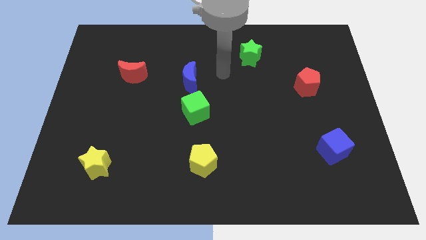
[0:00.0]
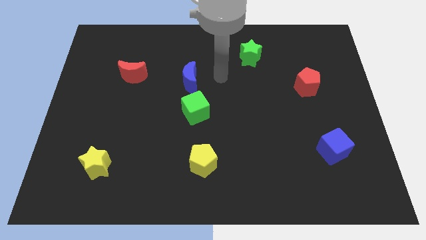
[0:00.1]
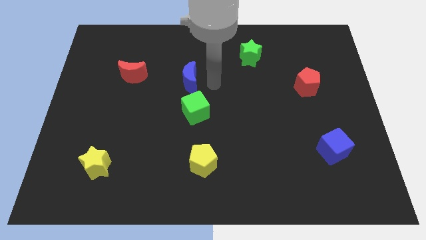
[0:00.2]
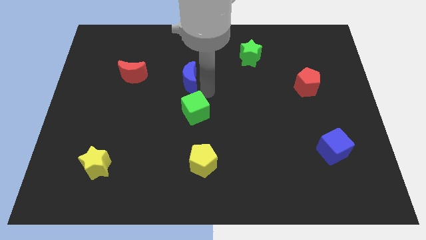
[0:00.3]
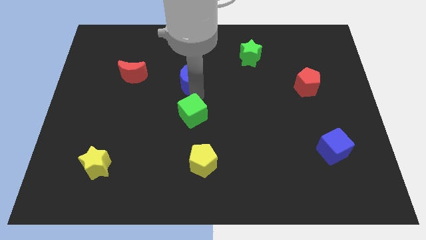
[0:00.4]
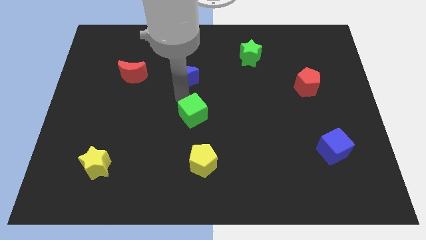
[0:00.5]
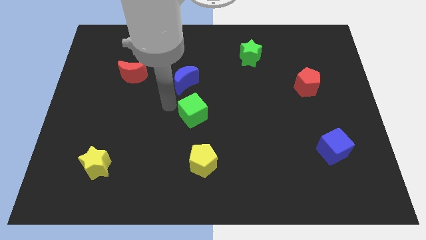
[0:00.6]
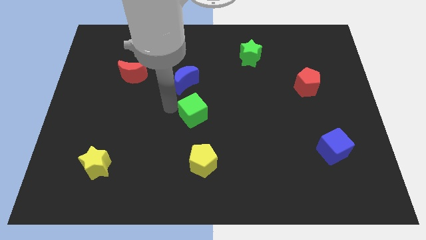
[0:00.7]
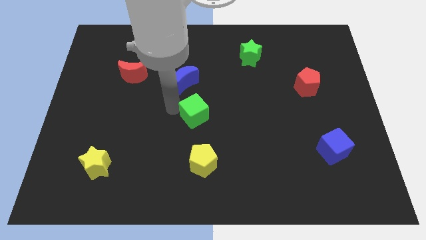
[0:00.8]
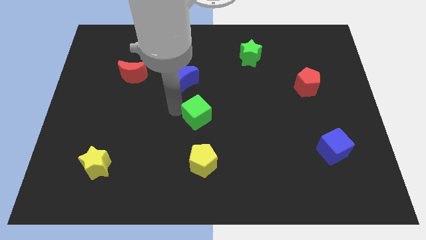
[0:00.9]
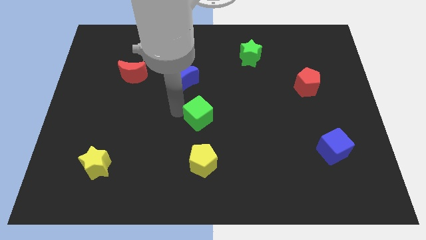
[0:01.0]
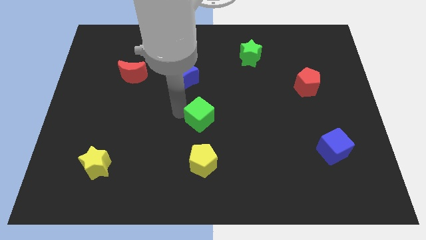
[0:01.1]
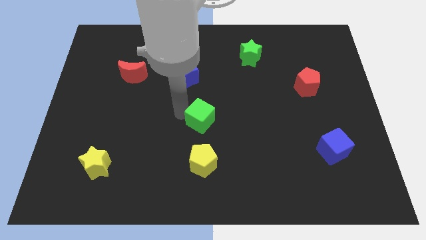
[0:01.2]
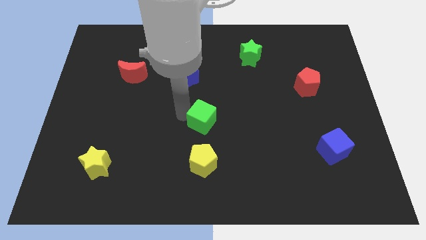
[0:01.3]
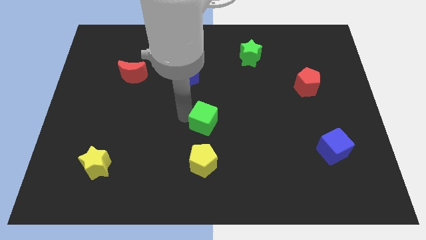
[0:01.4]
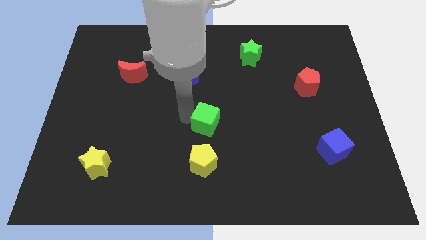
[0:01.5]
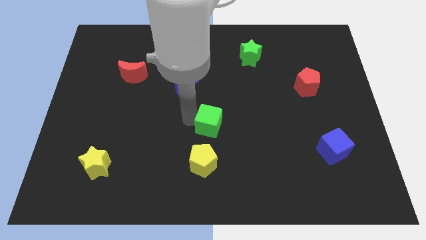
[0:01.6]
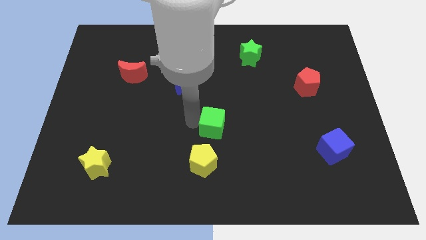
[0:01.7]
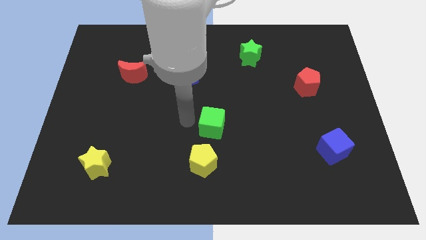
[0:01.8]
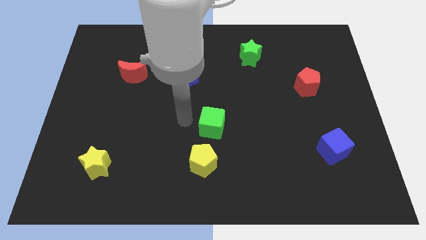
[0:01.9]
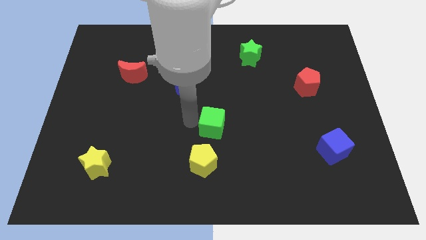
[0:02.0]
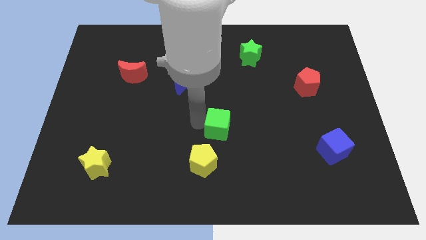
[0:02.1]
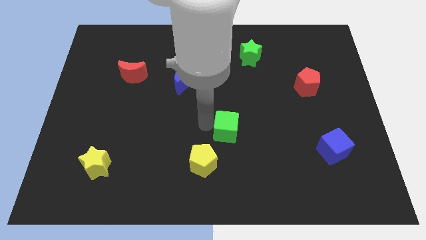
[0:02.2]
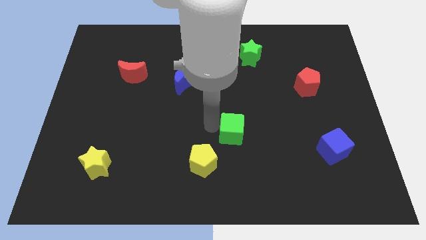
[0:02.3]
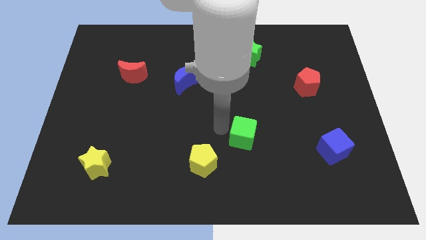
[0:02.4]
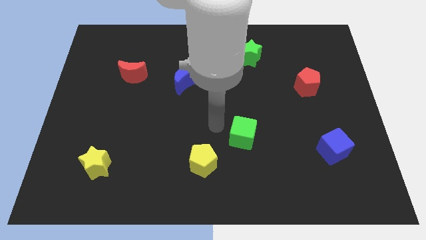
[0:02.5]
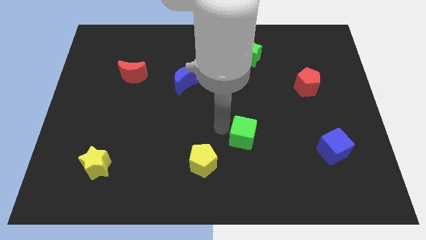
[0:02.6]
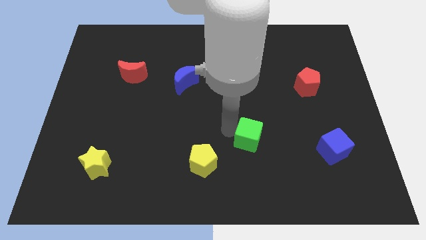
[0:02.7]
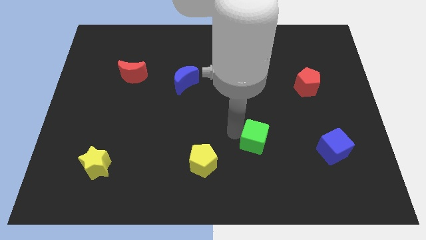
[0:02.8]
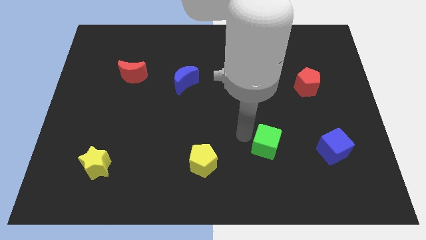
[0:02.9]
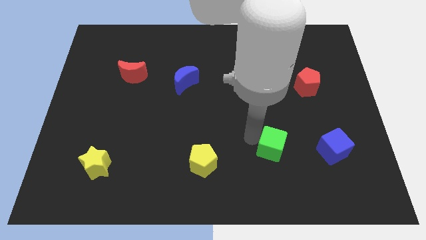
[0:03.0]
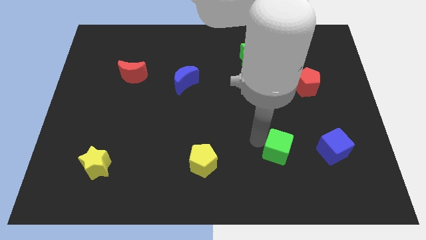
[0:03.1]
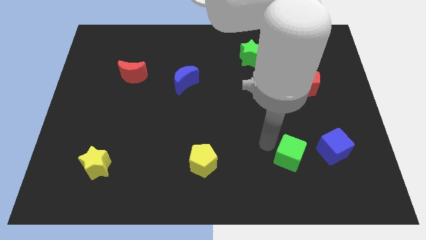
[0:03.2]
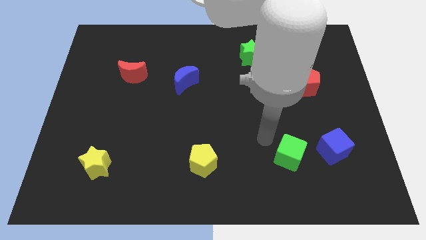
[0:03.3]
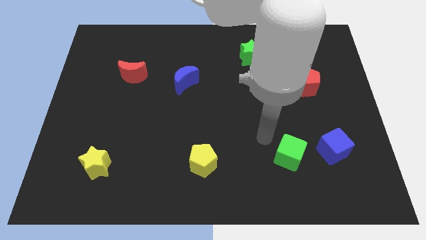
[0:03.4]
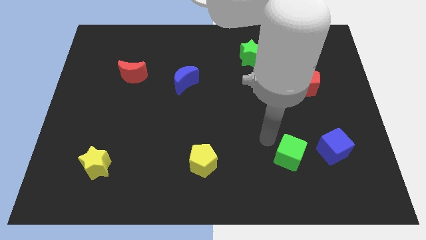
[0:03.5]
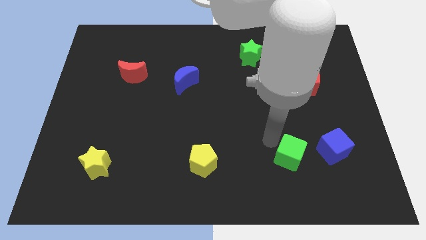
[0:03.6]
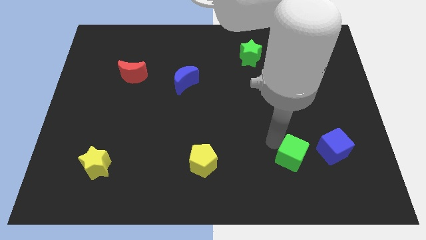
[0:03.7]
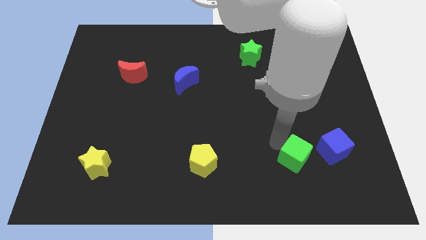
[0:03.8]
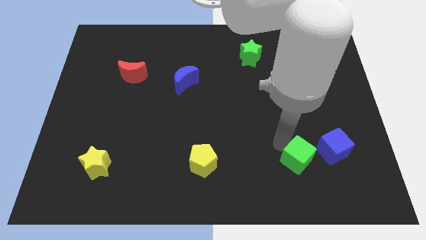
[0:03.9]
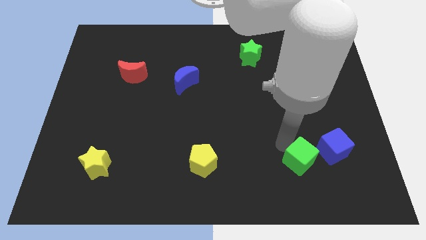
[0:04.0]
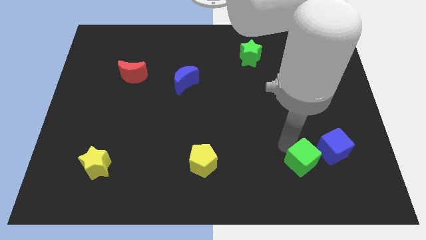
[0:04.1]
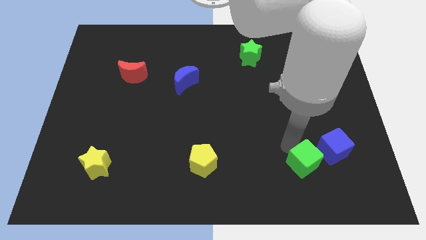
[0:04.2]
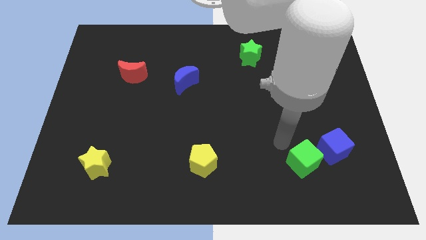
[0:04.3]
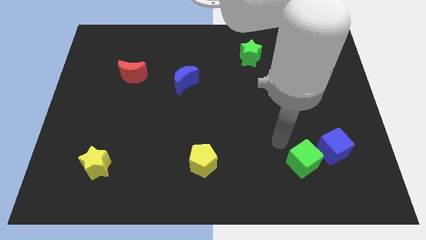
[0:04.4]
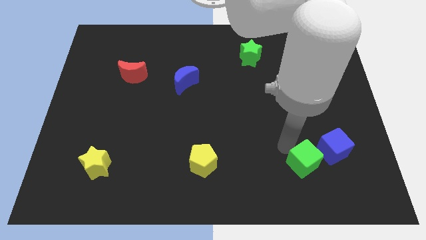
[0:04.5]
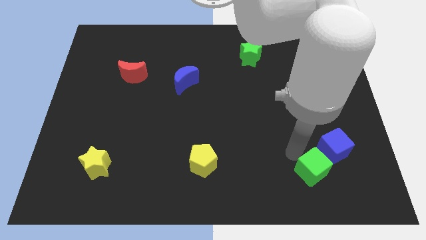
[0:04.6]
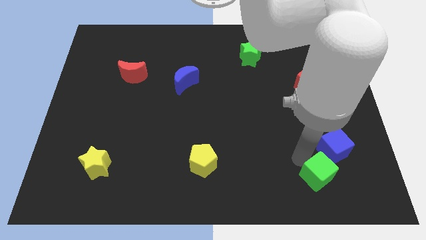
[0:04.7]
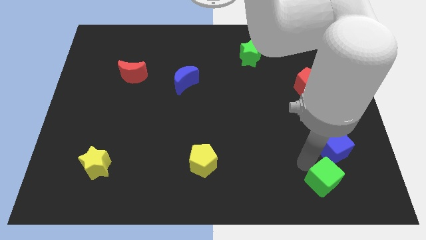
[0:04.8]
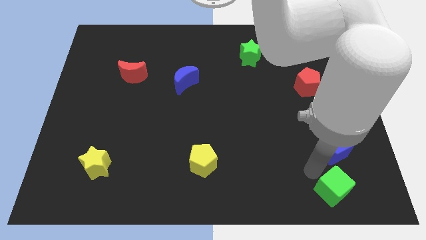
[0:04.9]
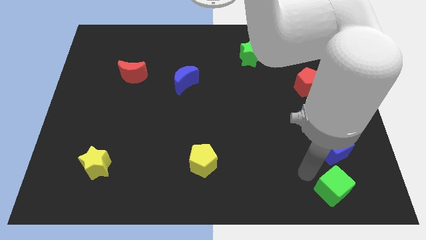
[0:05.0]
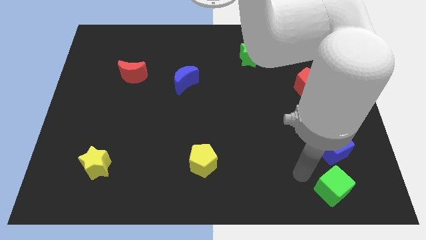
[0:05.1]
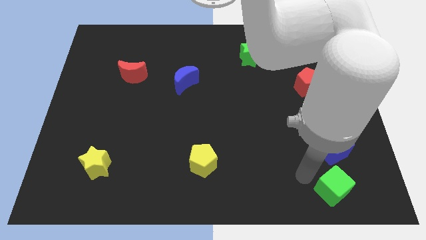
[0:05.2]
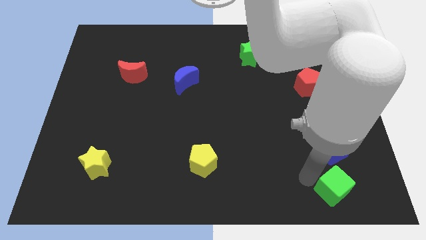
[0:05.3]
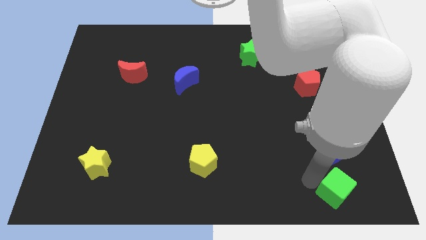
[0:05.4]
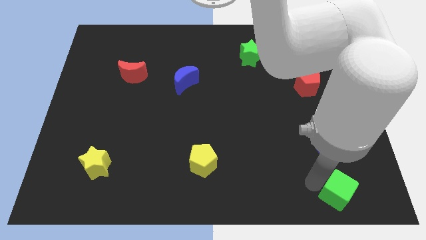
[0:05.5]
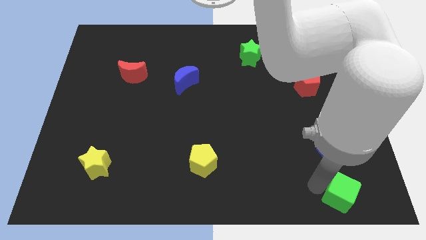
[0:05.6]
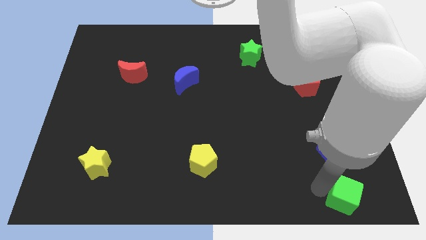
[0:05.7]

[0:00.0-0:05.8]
push the green cube to the bottom right

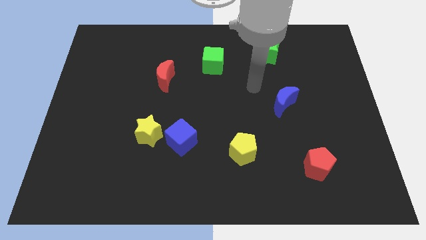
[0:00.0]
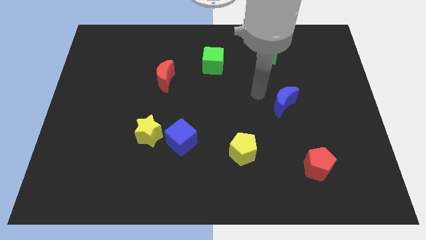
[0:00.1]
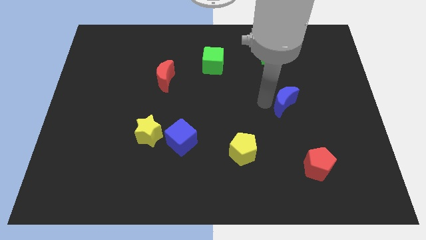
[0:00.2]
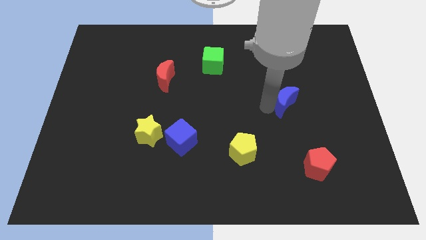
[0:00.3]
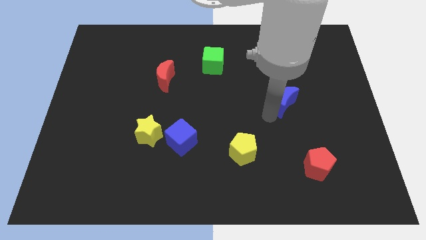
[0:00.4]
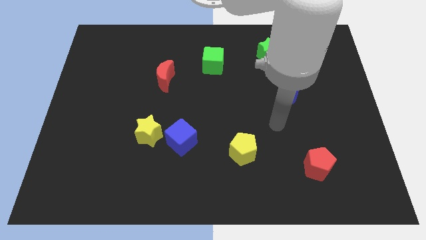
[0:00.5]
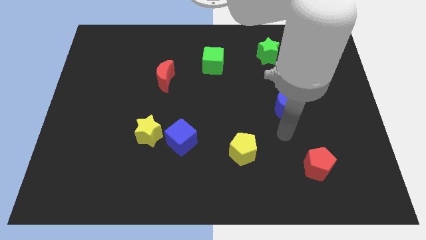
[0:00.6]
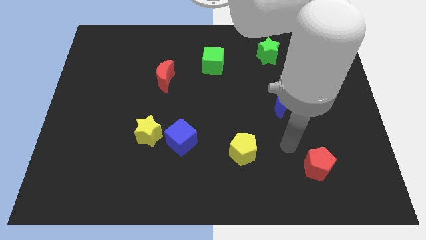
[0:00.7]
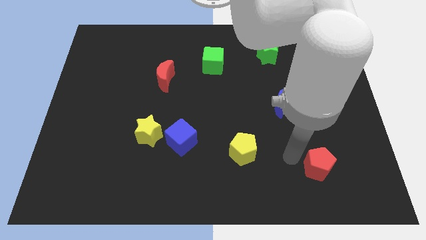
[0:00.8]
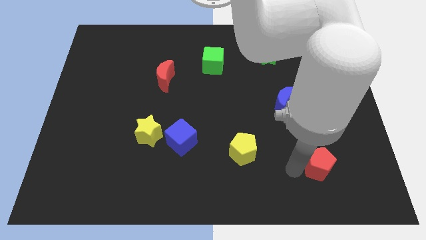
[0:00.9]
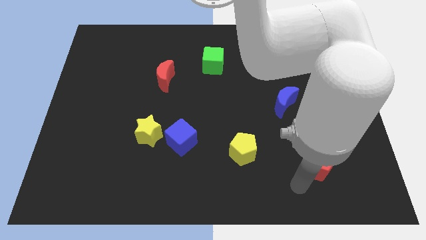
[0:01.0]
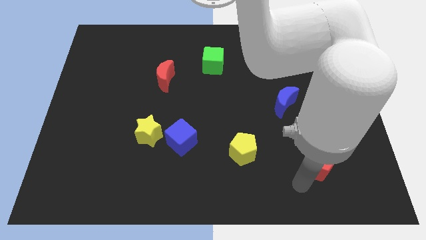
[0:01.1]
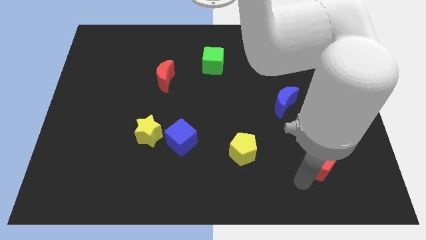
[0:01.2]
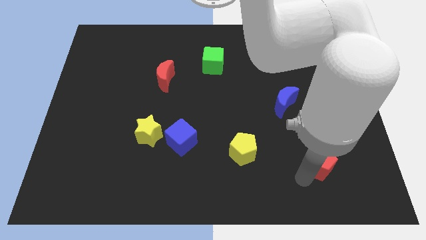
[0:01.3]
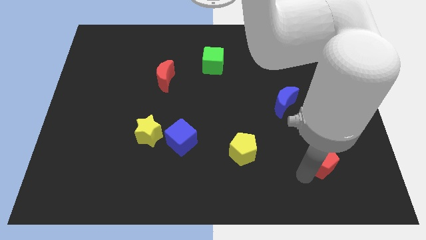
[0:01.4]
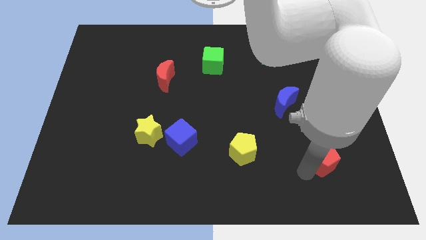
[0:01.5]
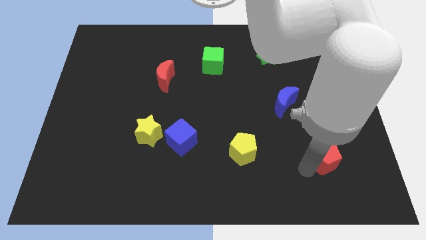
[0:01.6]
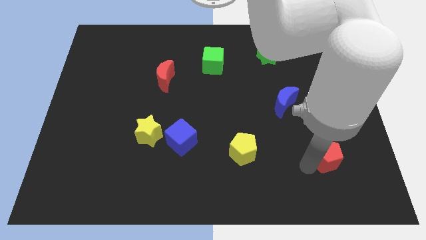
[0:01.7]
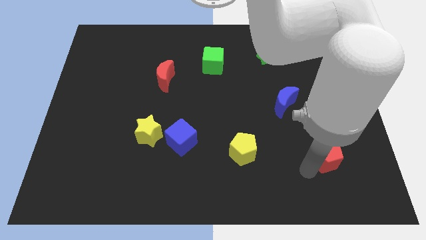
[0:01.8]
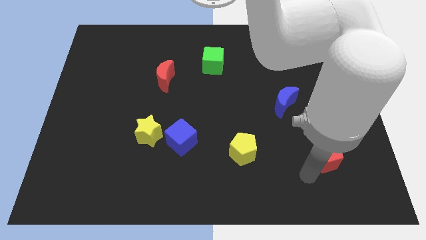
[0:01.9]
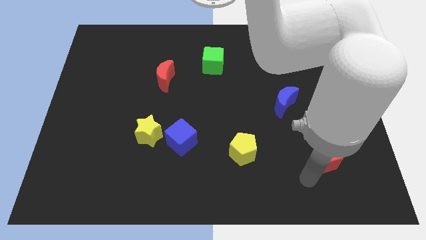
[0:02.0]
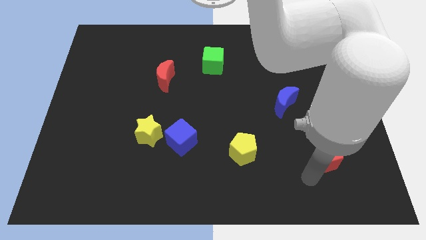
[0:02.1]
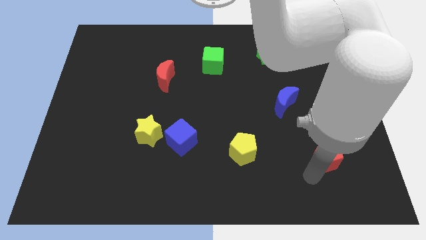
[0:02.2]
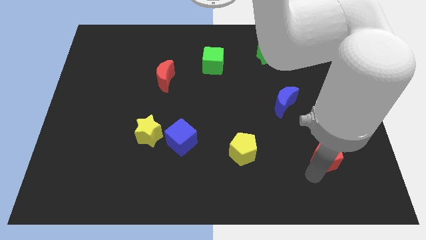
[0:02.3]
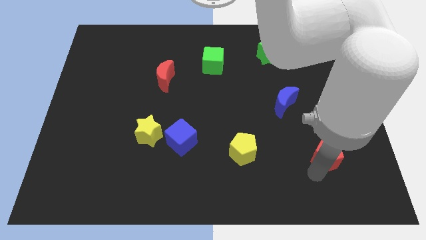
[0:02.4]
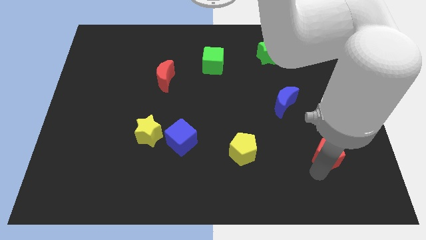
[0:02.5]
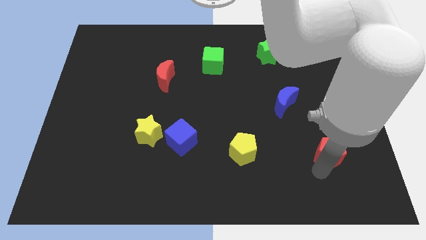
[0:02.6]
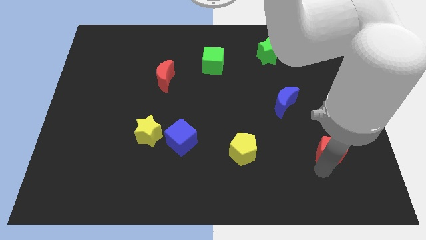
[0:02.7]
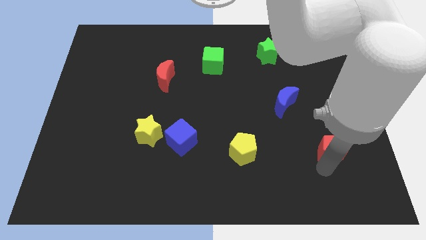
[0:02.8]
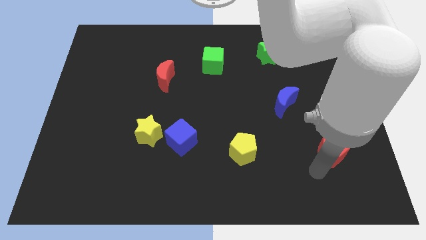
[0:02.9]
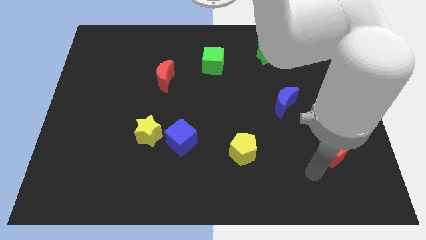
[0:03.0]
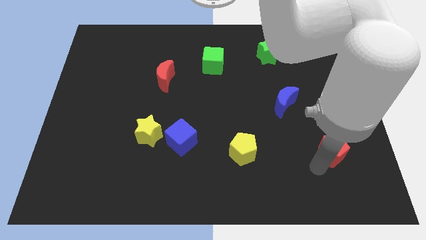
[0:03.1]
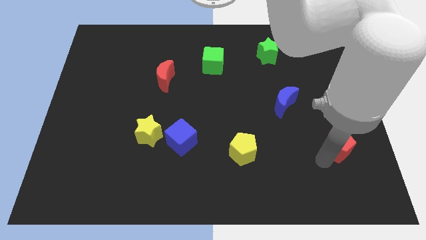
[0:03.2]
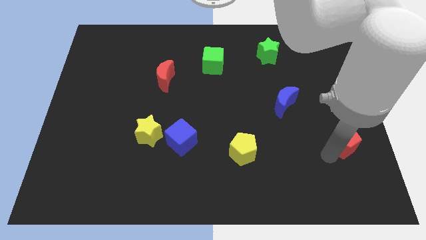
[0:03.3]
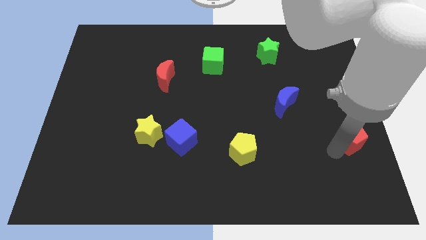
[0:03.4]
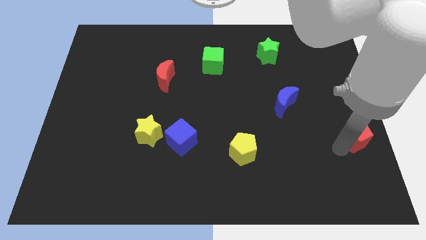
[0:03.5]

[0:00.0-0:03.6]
move the red pentagon to the right side of the board
